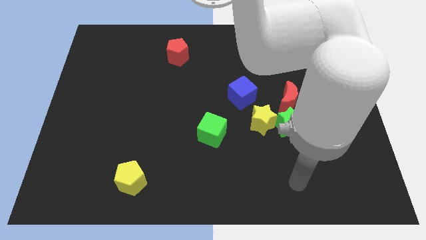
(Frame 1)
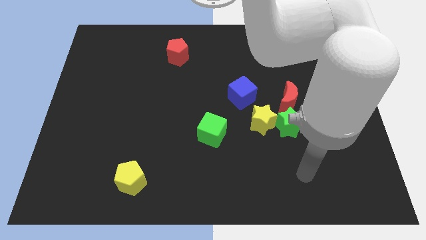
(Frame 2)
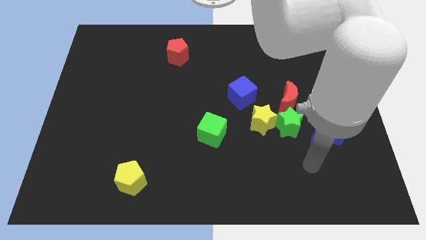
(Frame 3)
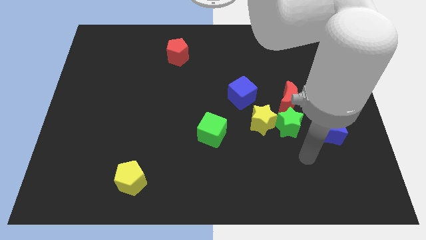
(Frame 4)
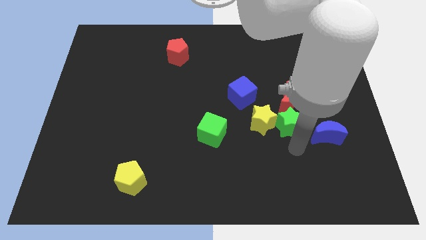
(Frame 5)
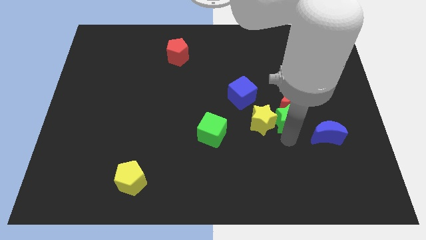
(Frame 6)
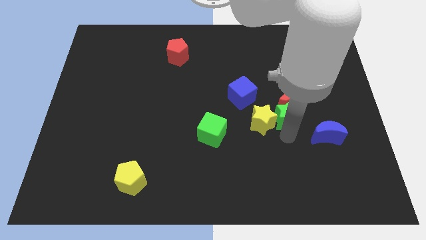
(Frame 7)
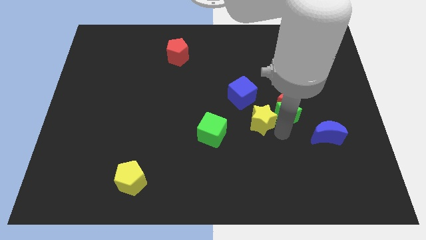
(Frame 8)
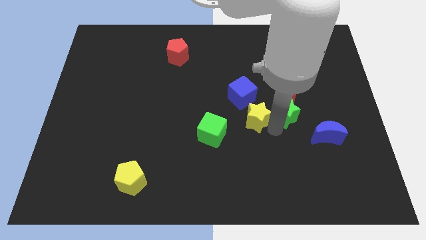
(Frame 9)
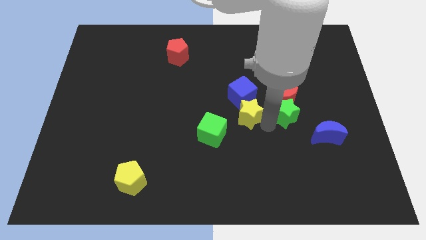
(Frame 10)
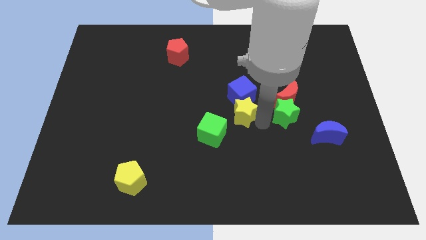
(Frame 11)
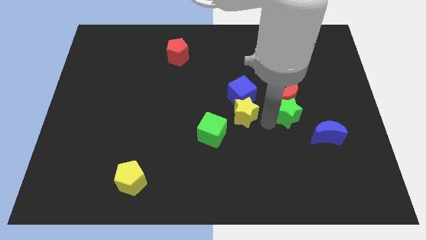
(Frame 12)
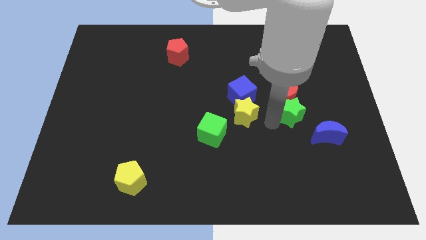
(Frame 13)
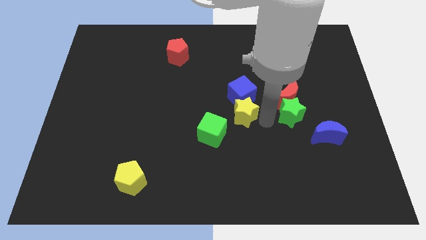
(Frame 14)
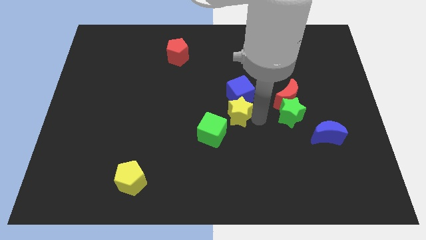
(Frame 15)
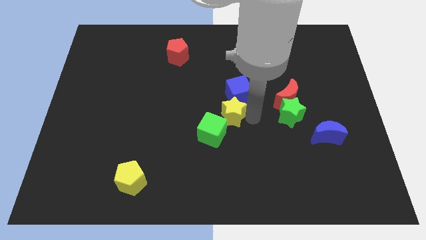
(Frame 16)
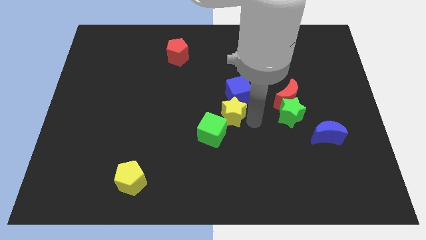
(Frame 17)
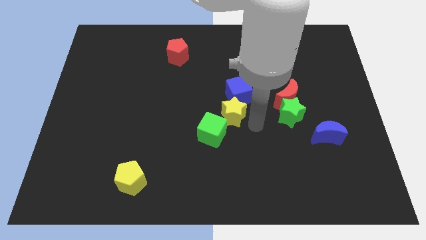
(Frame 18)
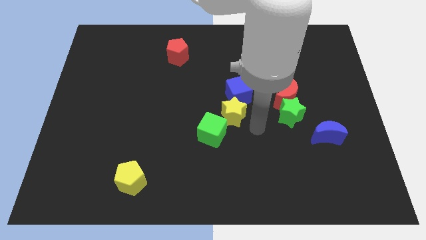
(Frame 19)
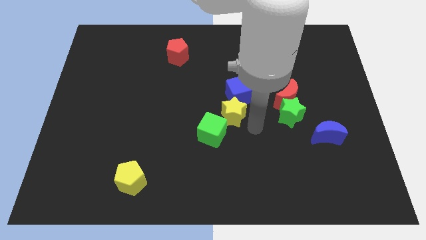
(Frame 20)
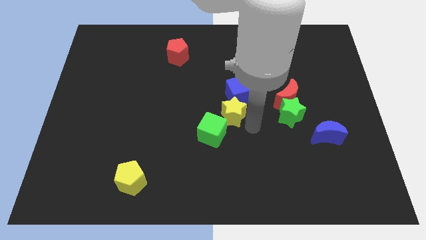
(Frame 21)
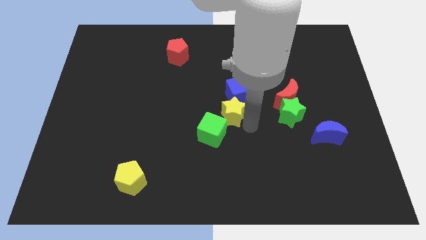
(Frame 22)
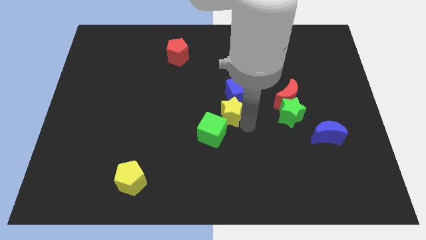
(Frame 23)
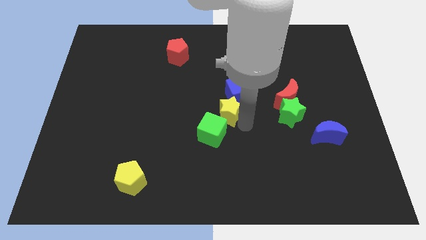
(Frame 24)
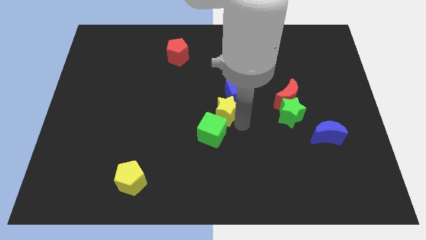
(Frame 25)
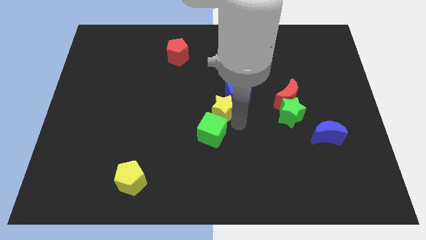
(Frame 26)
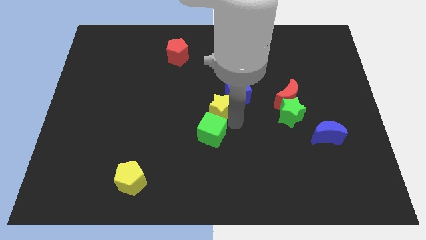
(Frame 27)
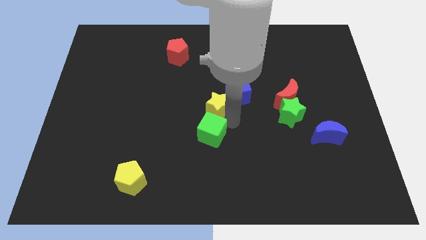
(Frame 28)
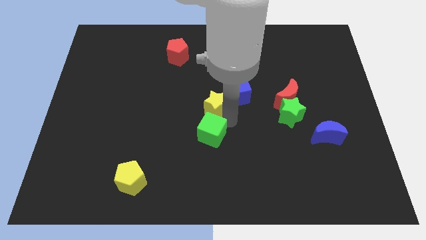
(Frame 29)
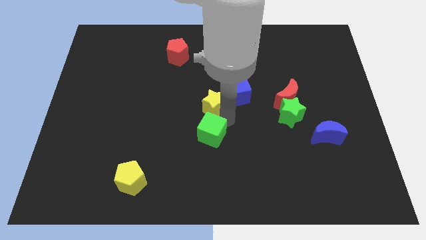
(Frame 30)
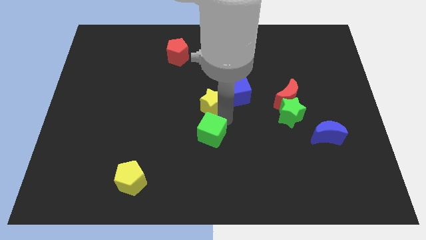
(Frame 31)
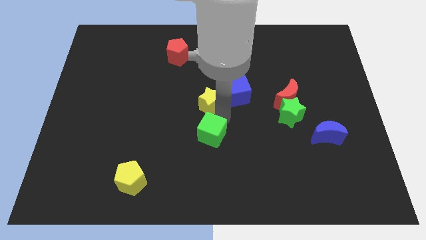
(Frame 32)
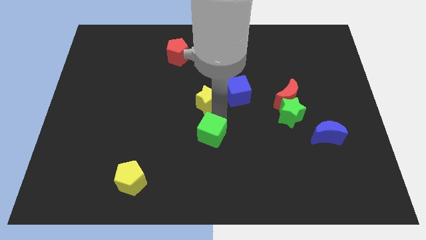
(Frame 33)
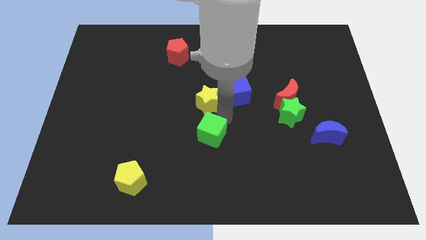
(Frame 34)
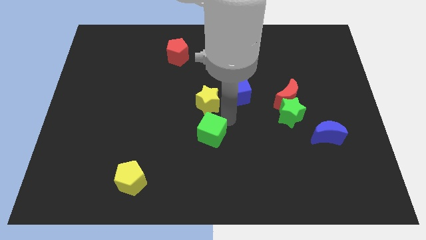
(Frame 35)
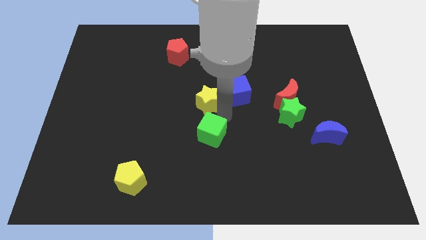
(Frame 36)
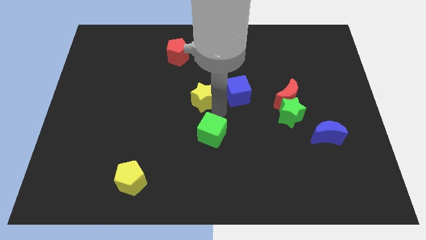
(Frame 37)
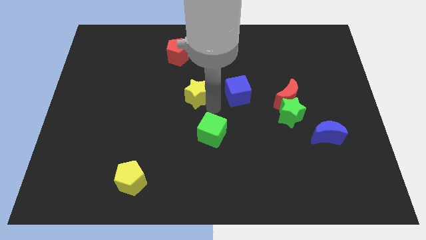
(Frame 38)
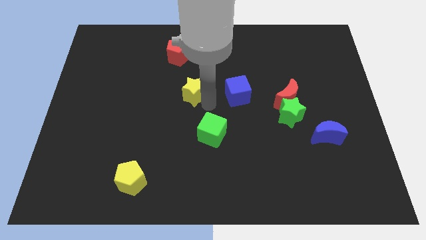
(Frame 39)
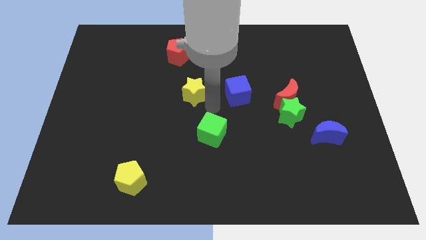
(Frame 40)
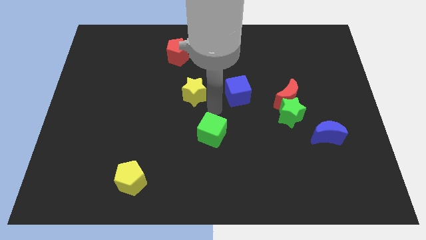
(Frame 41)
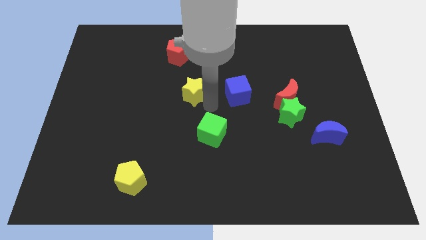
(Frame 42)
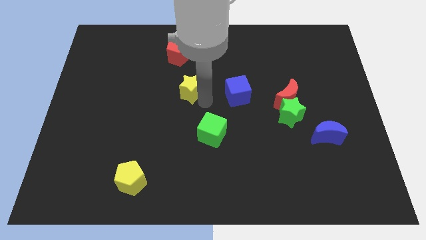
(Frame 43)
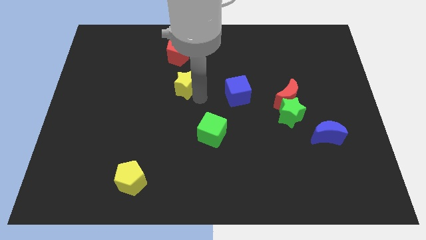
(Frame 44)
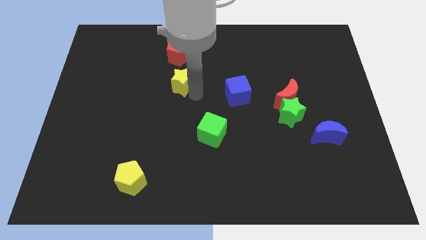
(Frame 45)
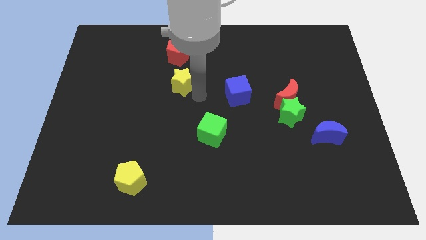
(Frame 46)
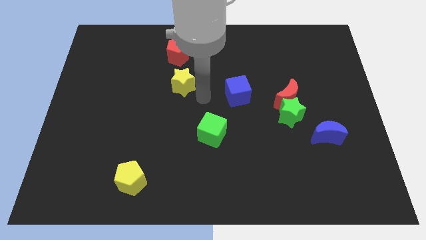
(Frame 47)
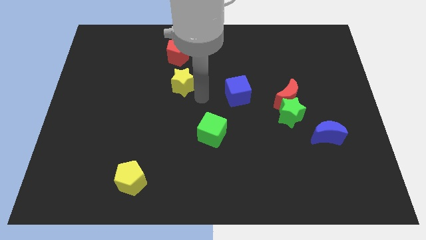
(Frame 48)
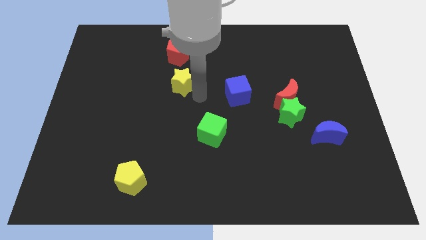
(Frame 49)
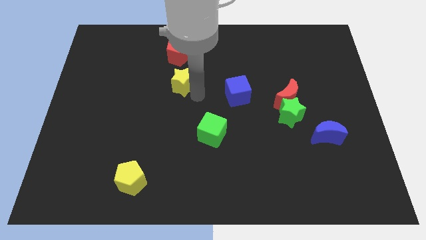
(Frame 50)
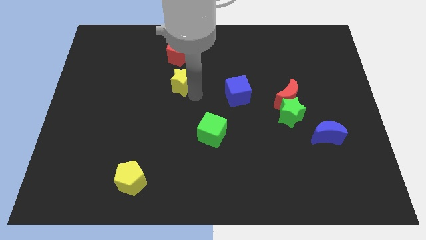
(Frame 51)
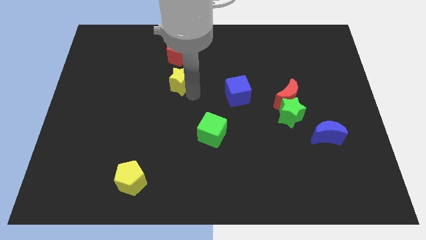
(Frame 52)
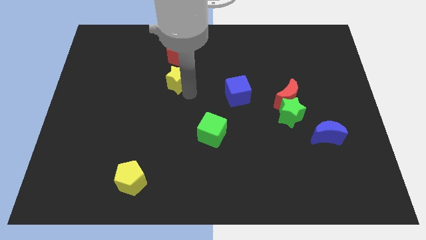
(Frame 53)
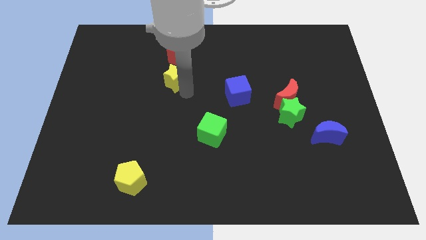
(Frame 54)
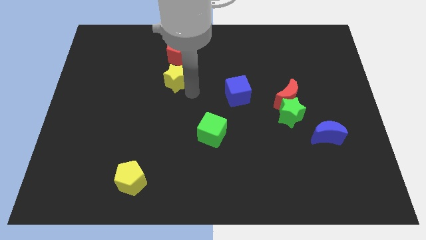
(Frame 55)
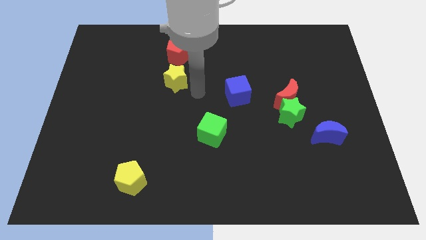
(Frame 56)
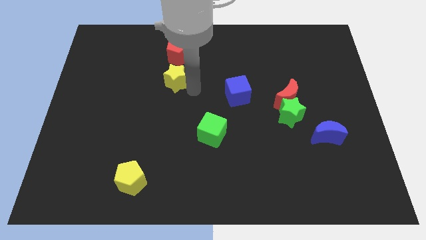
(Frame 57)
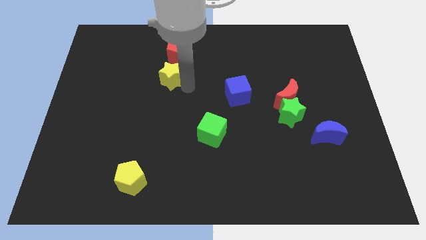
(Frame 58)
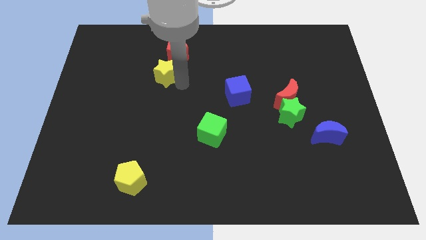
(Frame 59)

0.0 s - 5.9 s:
put the yellow star to the bottom left of the red pentagon

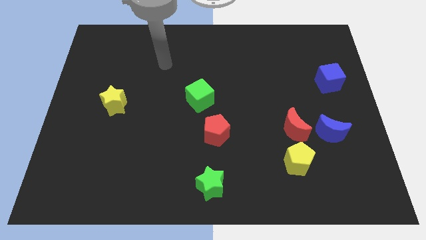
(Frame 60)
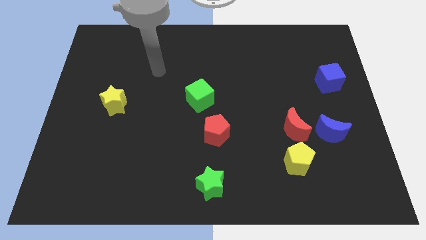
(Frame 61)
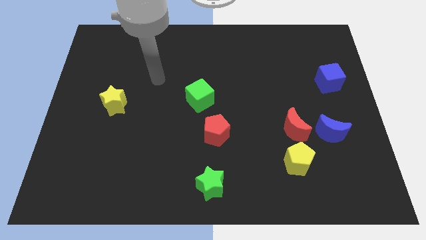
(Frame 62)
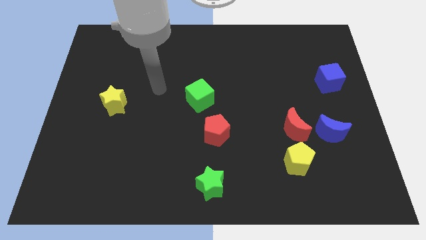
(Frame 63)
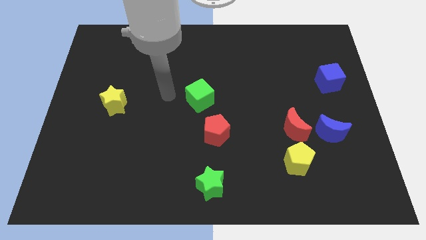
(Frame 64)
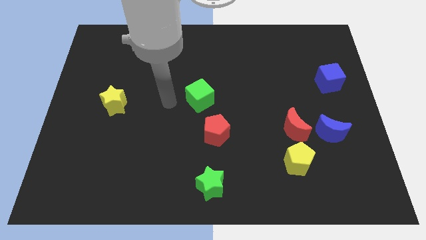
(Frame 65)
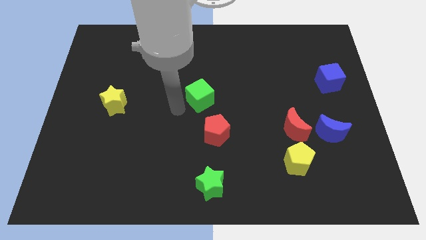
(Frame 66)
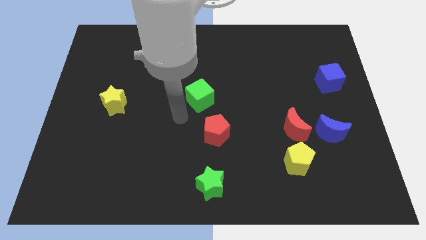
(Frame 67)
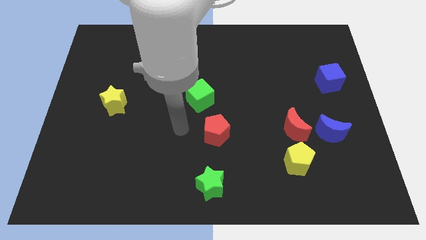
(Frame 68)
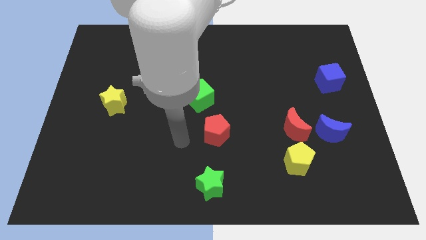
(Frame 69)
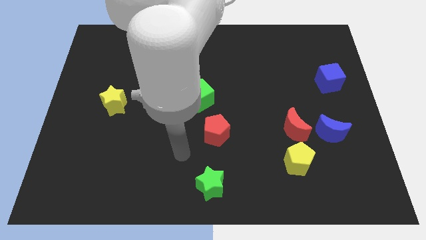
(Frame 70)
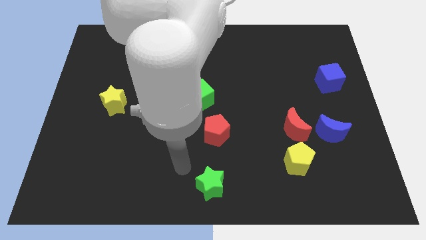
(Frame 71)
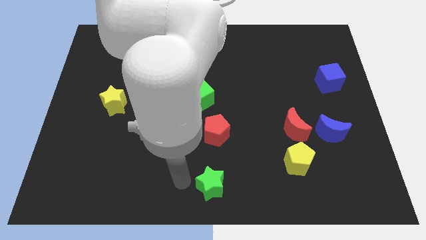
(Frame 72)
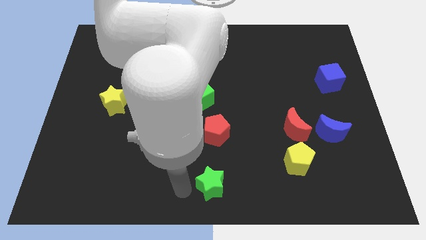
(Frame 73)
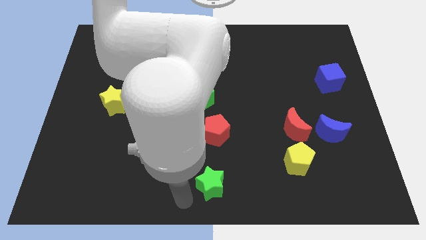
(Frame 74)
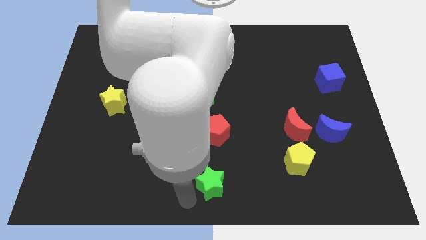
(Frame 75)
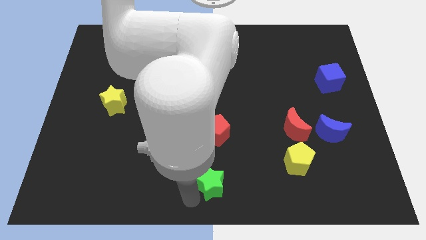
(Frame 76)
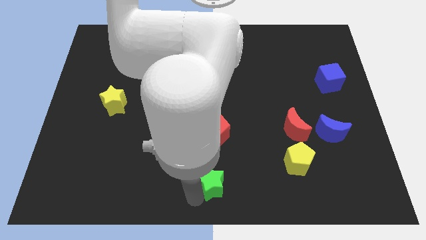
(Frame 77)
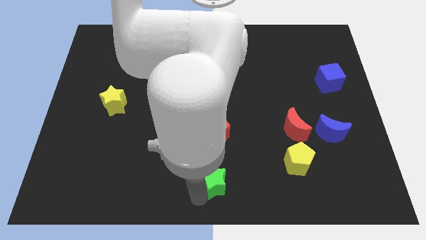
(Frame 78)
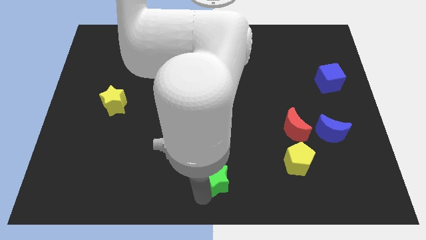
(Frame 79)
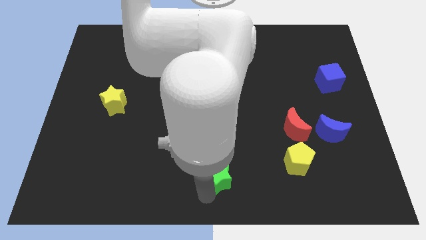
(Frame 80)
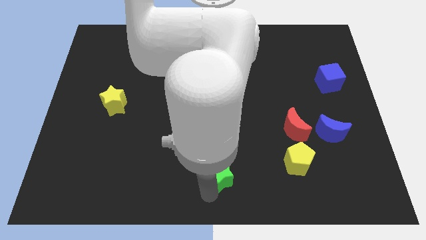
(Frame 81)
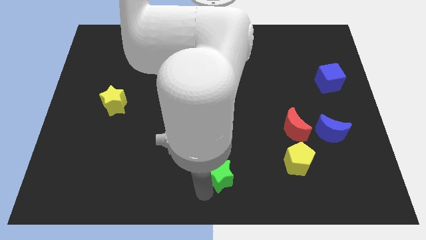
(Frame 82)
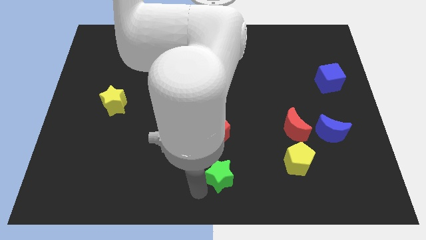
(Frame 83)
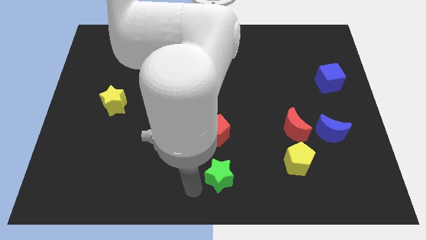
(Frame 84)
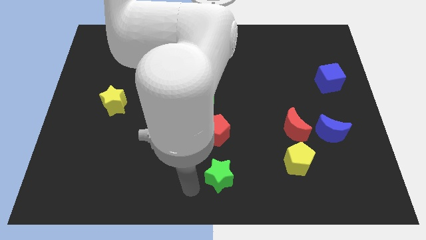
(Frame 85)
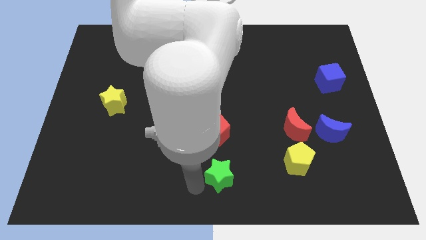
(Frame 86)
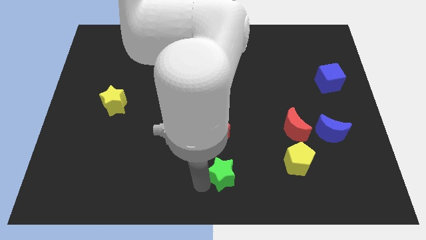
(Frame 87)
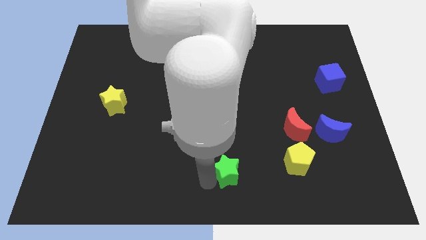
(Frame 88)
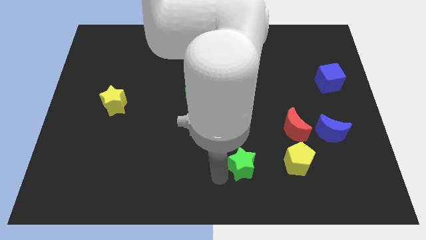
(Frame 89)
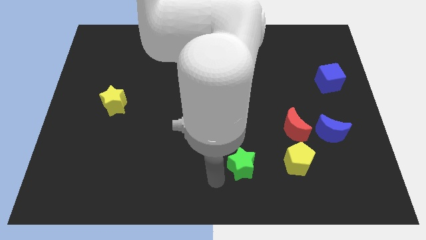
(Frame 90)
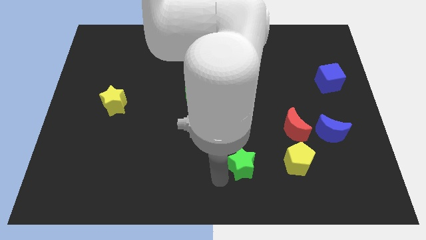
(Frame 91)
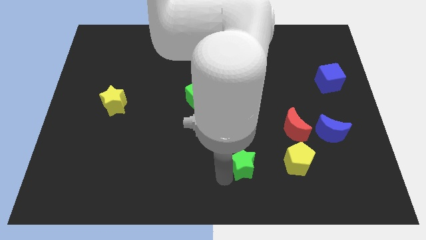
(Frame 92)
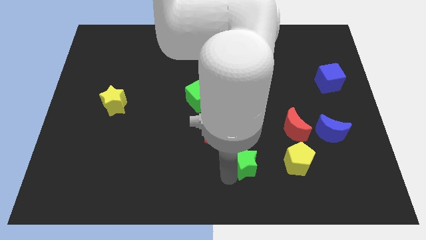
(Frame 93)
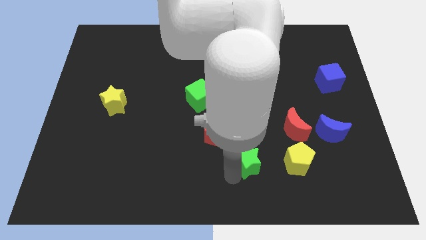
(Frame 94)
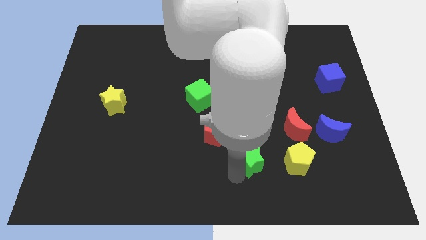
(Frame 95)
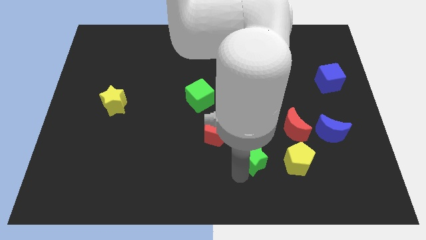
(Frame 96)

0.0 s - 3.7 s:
slide the green star diagonally down and to the left of the red moon
